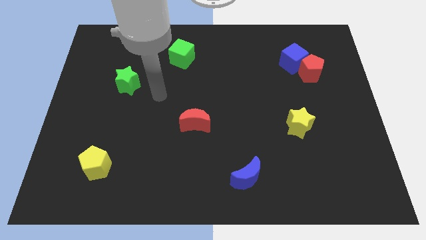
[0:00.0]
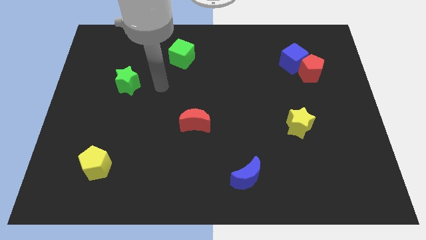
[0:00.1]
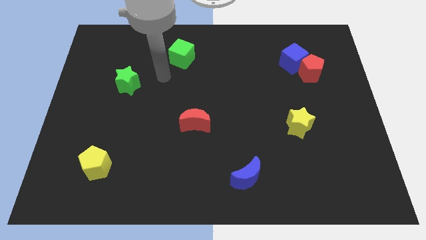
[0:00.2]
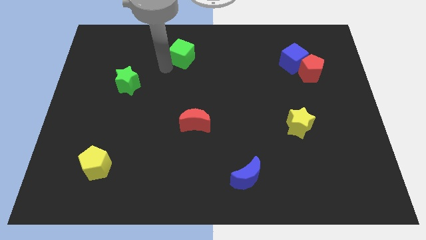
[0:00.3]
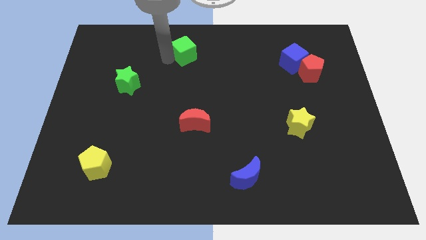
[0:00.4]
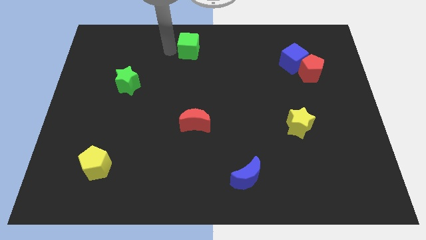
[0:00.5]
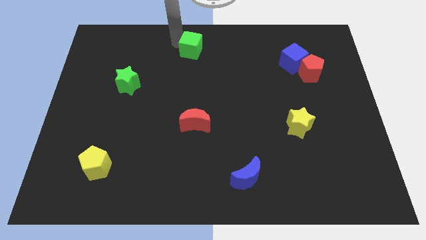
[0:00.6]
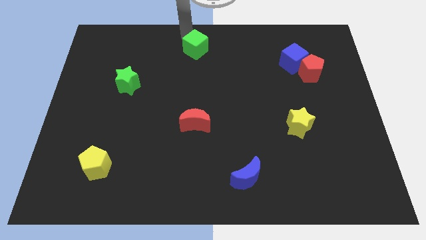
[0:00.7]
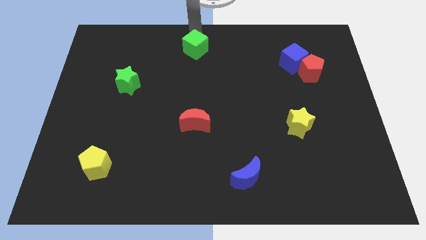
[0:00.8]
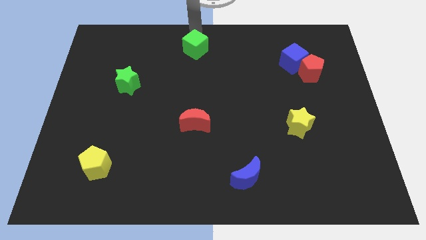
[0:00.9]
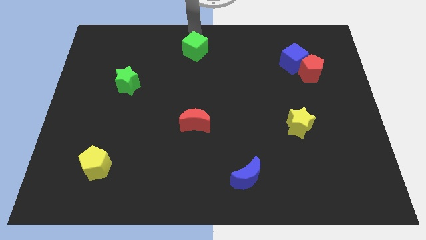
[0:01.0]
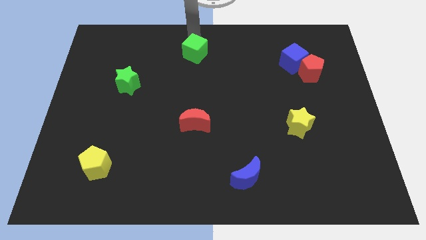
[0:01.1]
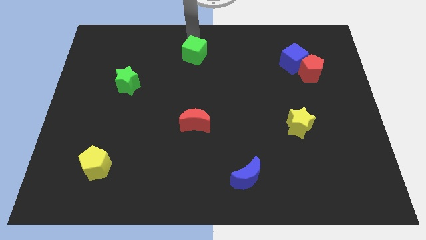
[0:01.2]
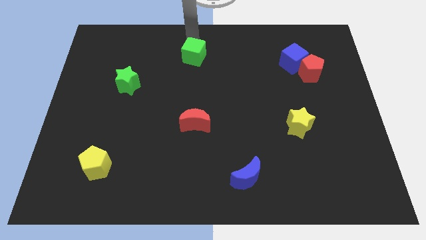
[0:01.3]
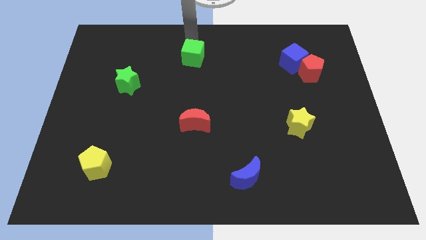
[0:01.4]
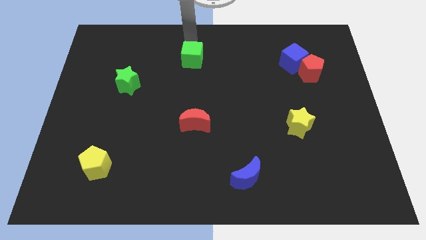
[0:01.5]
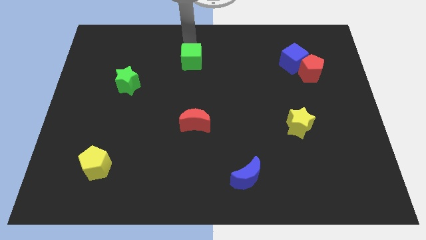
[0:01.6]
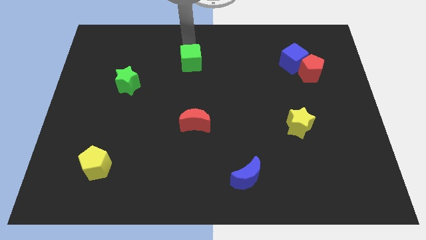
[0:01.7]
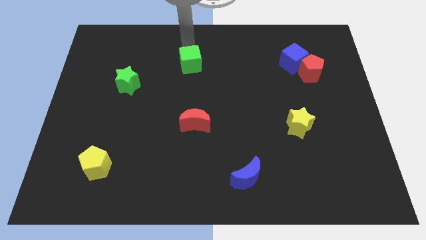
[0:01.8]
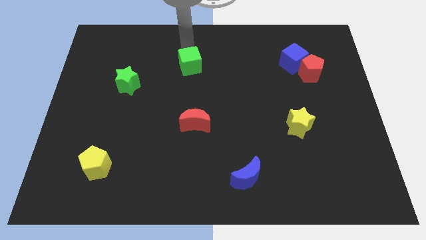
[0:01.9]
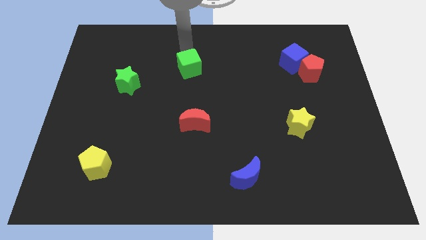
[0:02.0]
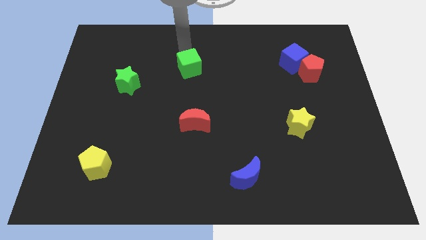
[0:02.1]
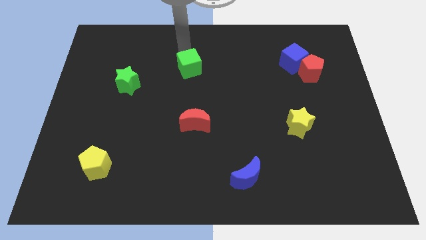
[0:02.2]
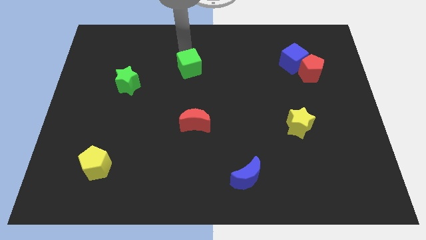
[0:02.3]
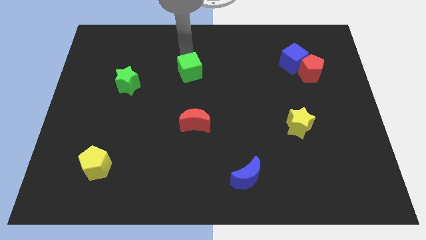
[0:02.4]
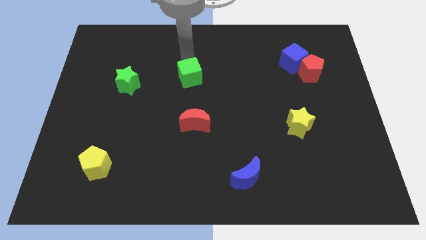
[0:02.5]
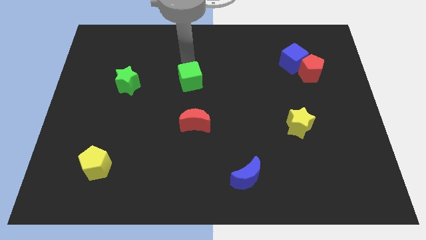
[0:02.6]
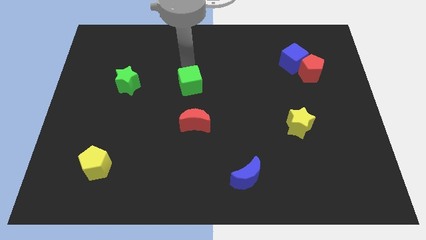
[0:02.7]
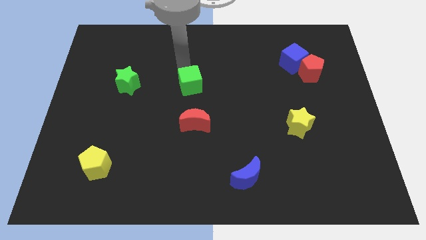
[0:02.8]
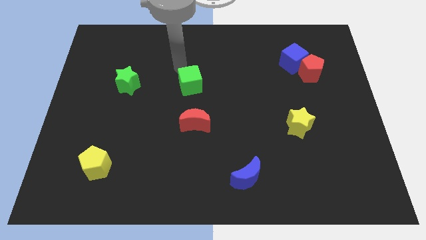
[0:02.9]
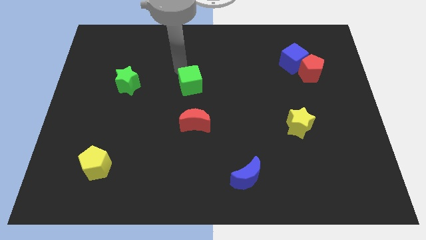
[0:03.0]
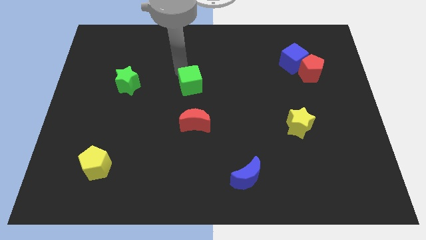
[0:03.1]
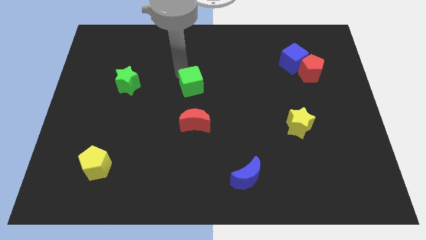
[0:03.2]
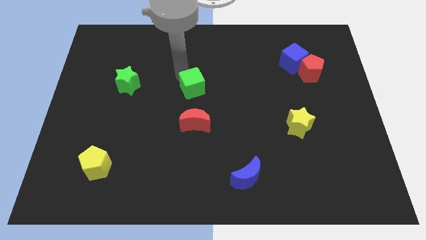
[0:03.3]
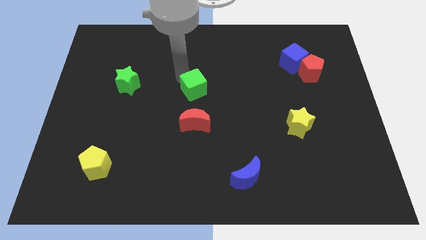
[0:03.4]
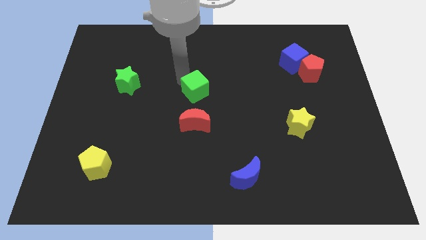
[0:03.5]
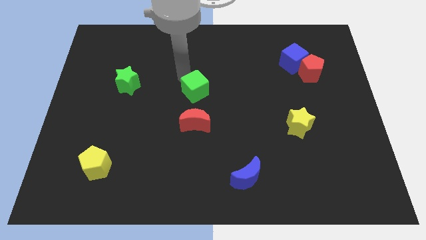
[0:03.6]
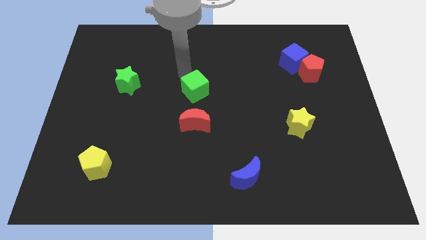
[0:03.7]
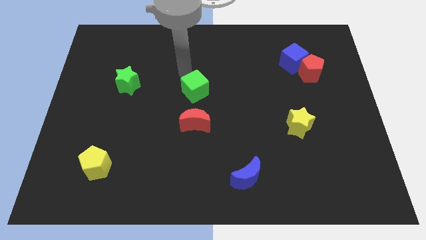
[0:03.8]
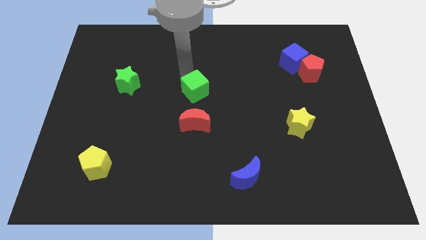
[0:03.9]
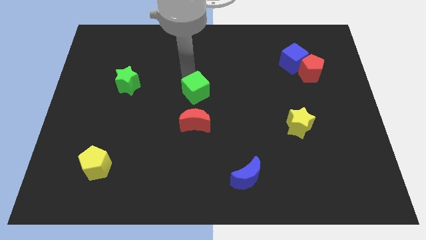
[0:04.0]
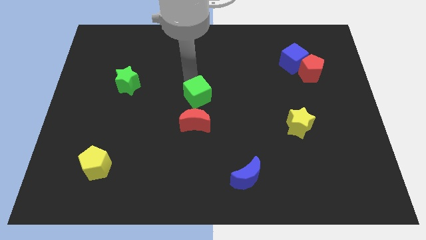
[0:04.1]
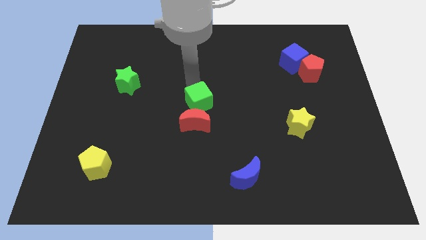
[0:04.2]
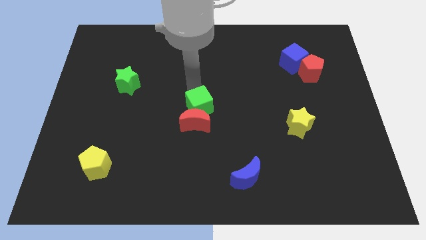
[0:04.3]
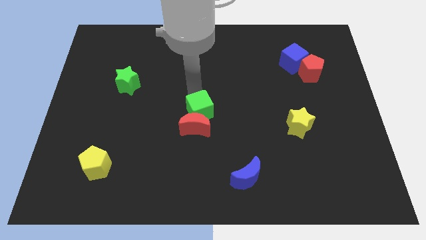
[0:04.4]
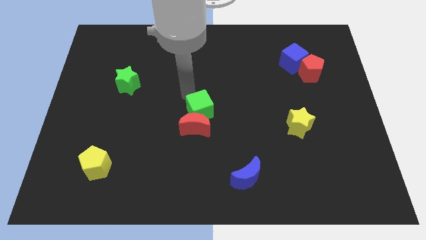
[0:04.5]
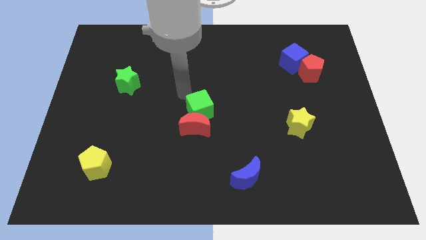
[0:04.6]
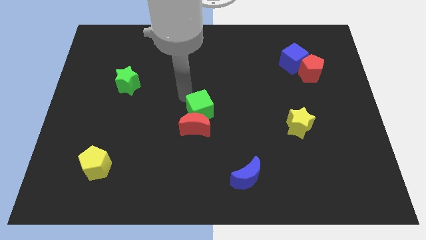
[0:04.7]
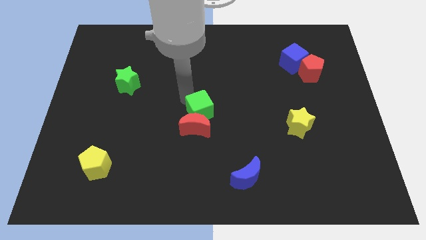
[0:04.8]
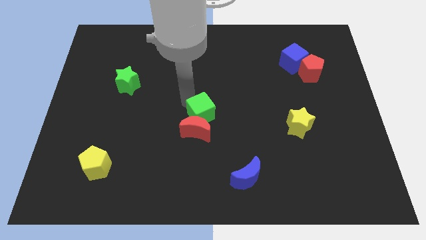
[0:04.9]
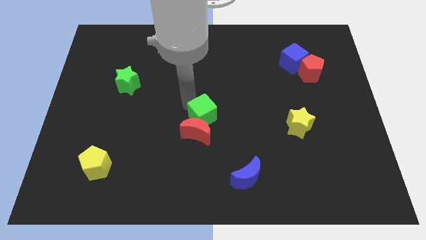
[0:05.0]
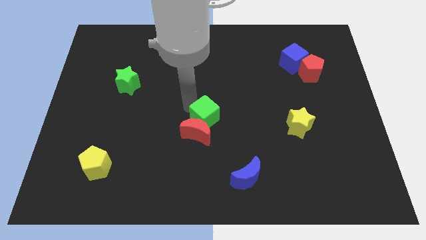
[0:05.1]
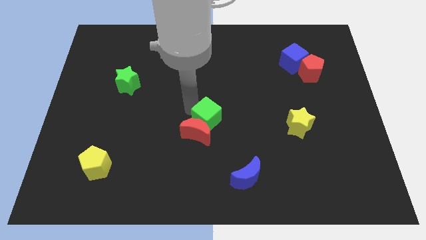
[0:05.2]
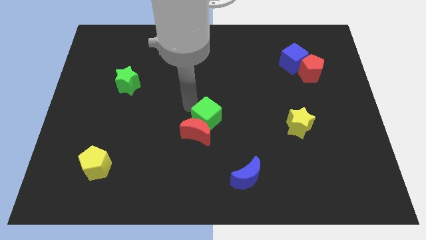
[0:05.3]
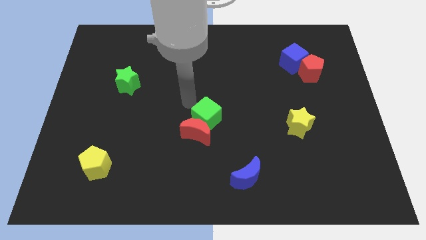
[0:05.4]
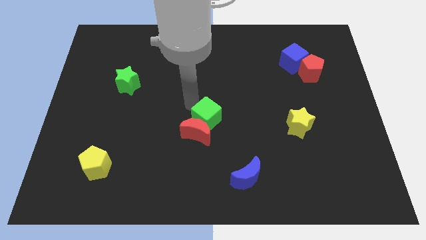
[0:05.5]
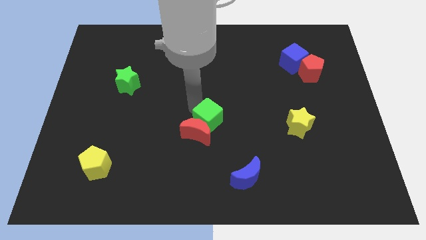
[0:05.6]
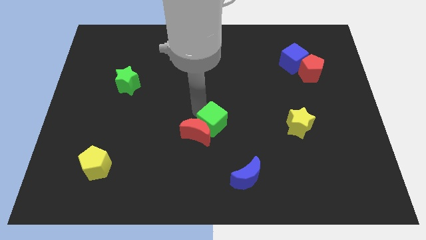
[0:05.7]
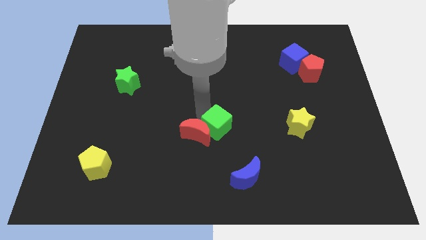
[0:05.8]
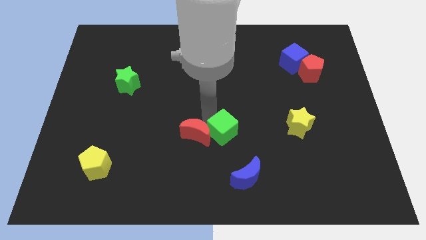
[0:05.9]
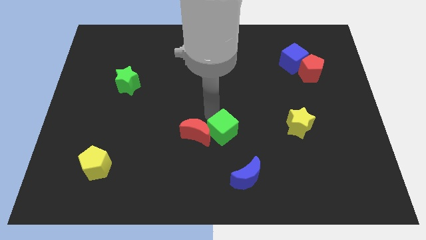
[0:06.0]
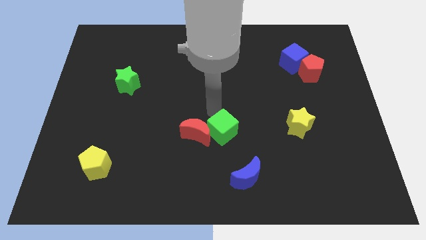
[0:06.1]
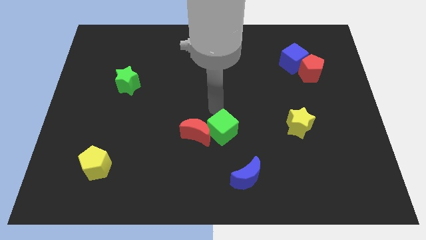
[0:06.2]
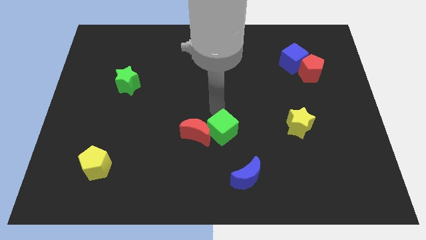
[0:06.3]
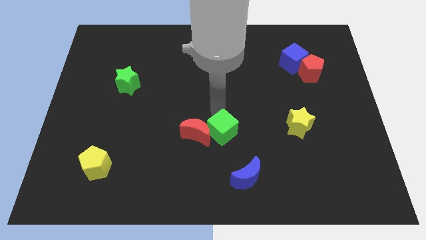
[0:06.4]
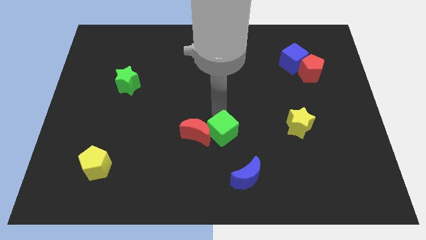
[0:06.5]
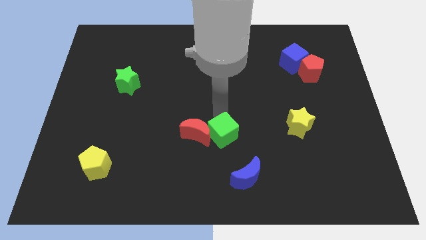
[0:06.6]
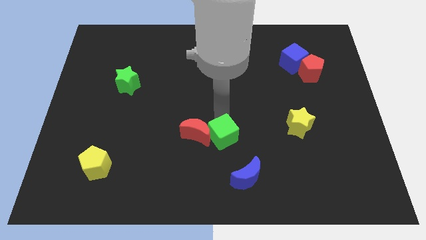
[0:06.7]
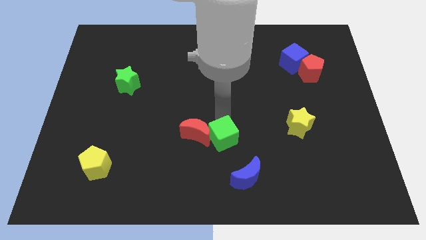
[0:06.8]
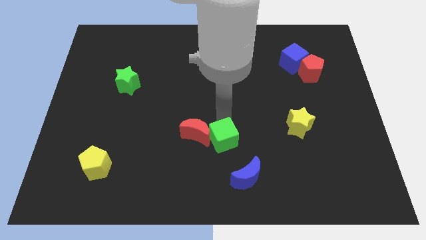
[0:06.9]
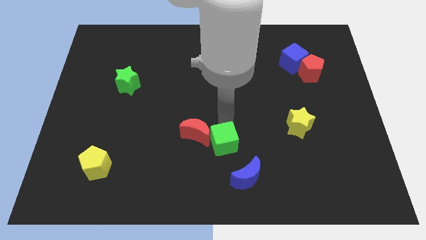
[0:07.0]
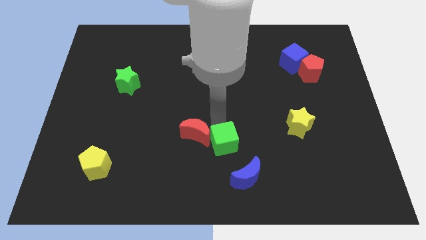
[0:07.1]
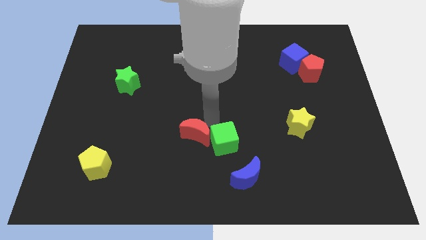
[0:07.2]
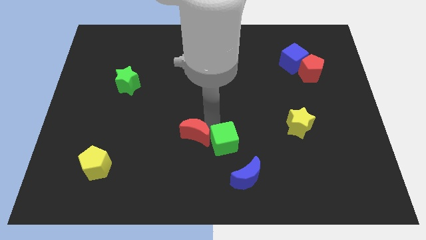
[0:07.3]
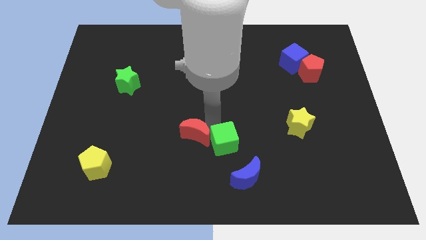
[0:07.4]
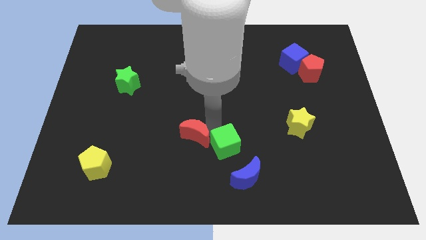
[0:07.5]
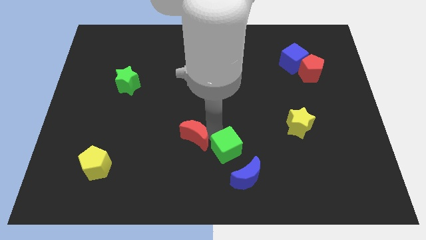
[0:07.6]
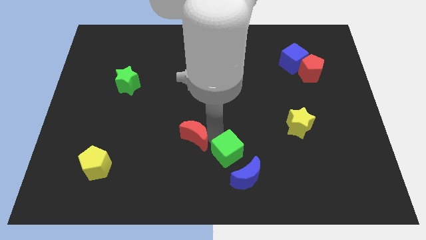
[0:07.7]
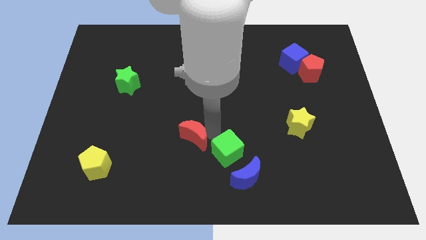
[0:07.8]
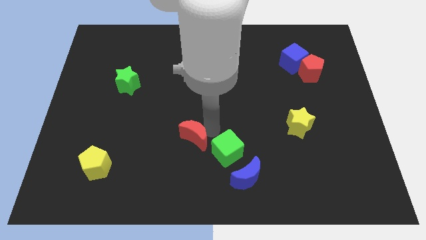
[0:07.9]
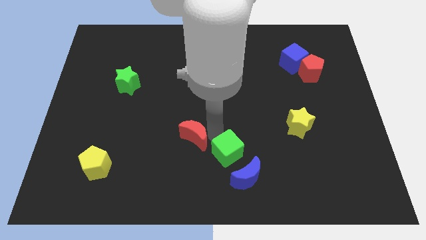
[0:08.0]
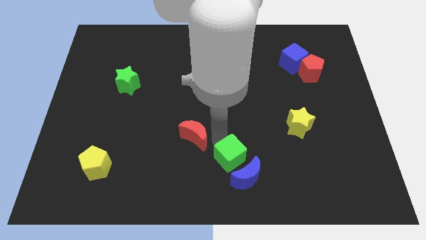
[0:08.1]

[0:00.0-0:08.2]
move the green cube towards the blue moon
